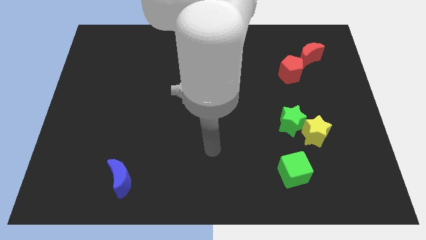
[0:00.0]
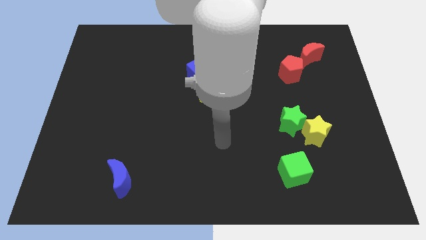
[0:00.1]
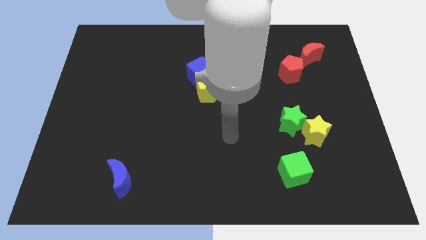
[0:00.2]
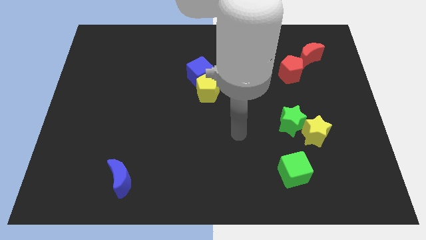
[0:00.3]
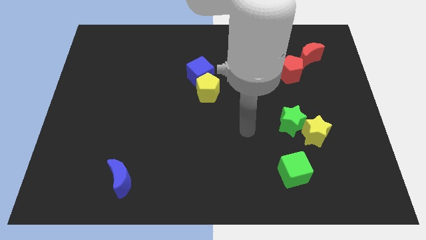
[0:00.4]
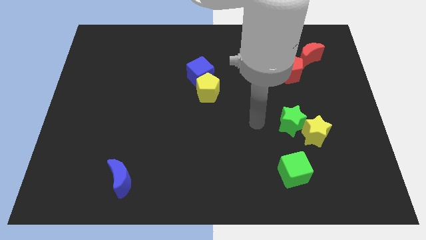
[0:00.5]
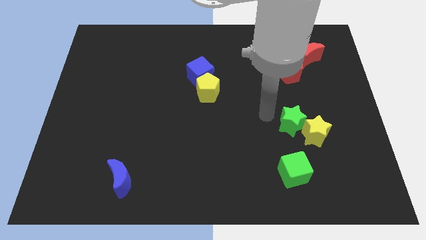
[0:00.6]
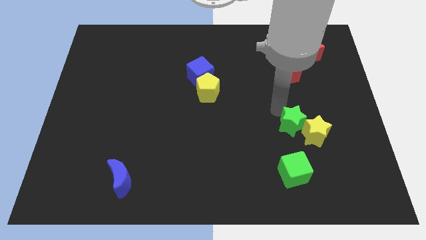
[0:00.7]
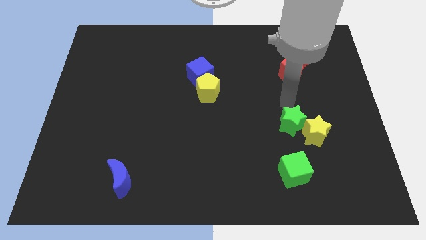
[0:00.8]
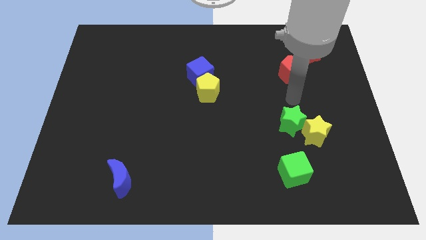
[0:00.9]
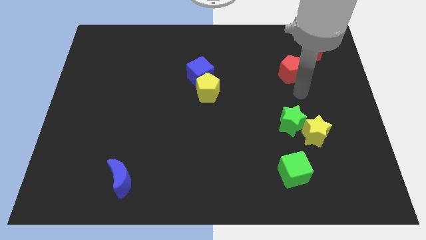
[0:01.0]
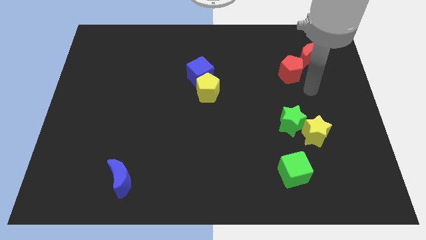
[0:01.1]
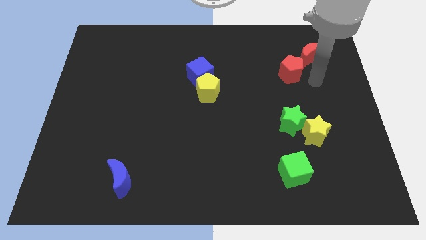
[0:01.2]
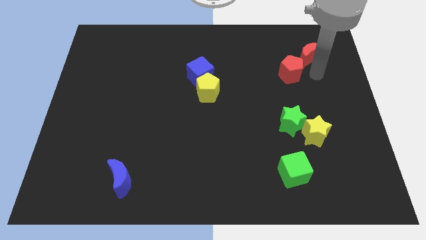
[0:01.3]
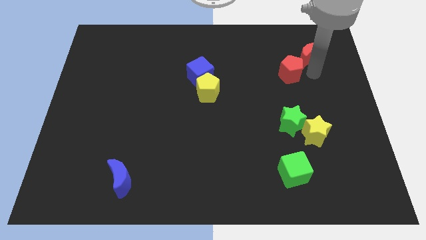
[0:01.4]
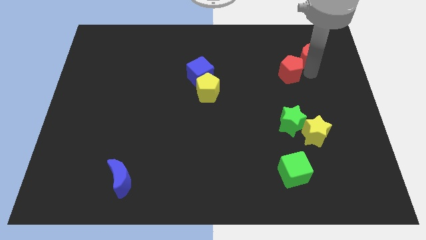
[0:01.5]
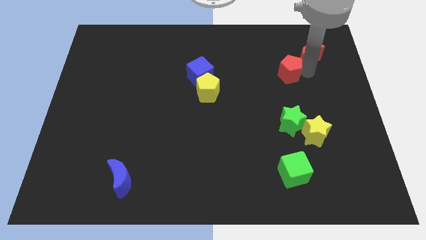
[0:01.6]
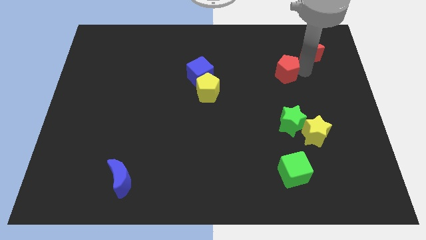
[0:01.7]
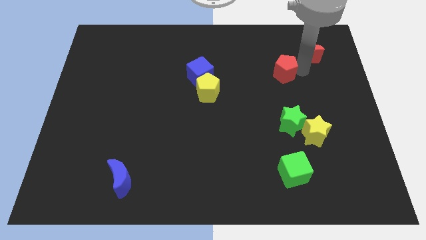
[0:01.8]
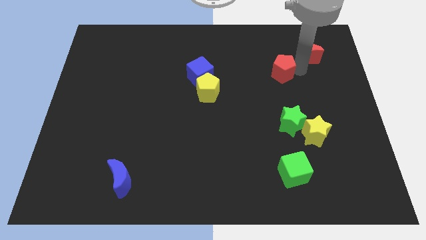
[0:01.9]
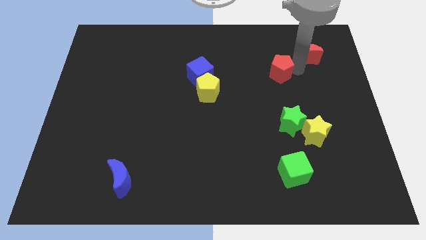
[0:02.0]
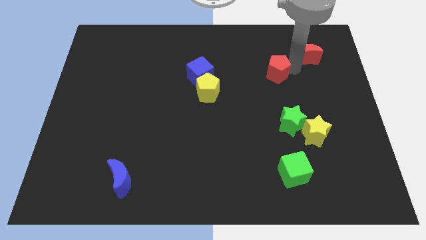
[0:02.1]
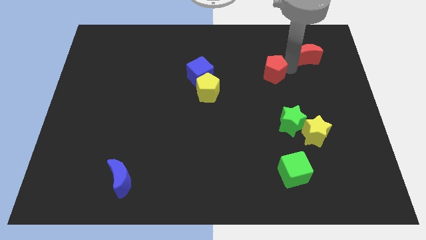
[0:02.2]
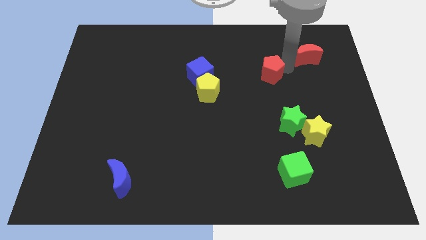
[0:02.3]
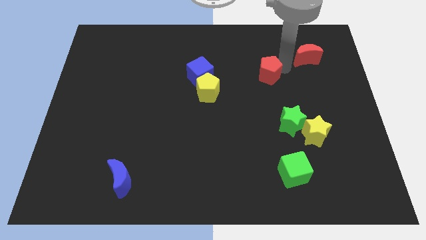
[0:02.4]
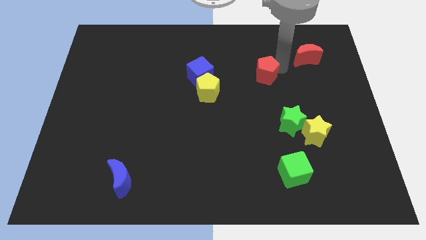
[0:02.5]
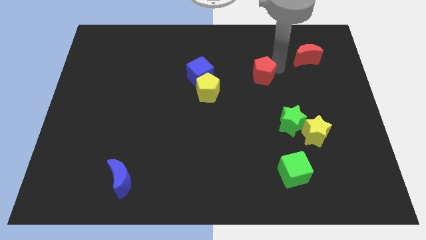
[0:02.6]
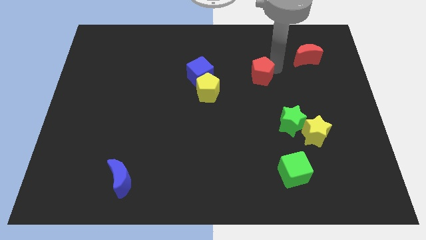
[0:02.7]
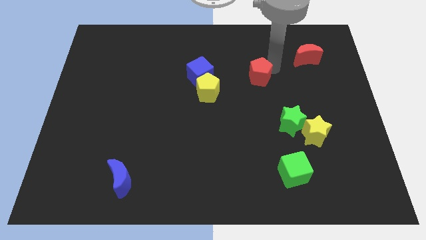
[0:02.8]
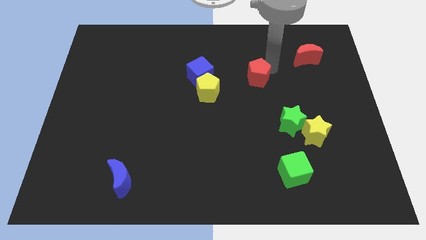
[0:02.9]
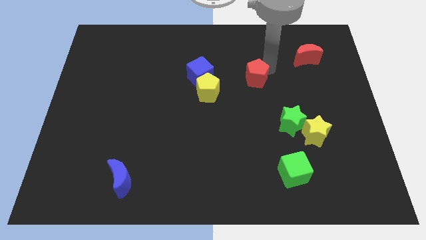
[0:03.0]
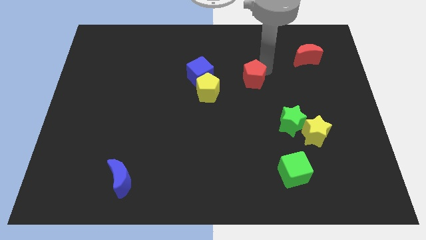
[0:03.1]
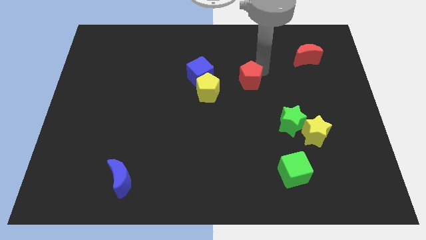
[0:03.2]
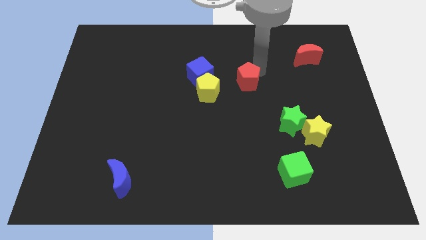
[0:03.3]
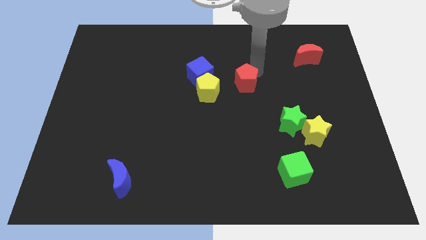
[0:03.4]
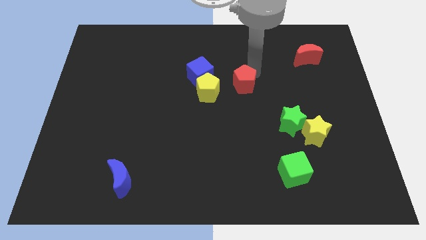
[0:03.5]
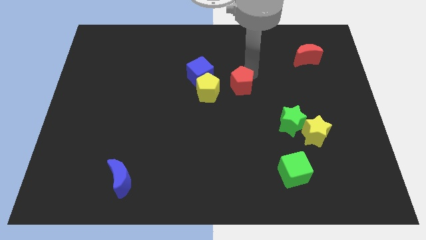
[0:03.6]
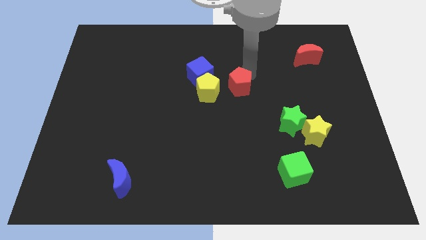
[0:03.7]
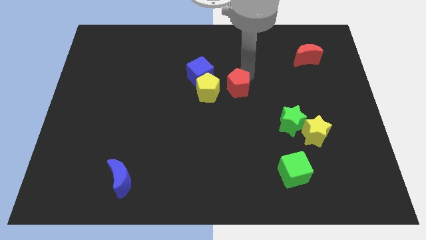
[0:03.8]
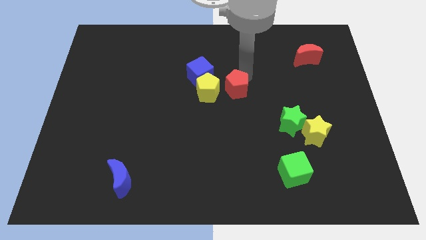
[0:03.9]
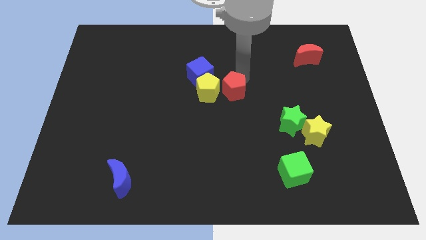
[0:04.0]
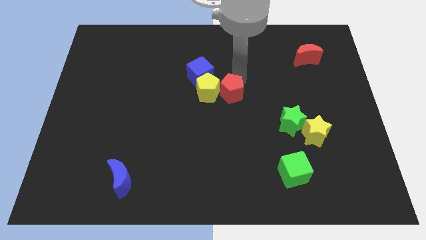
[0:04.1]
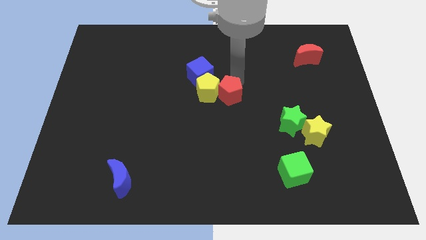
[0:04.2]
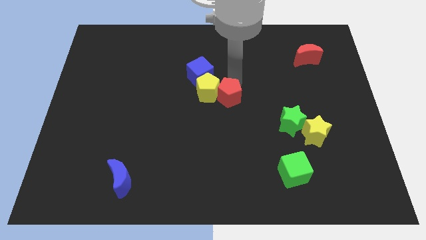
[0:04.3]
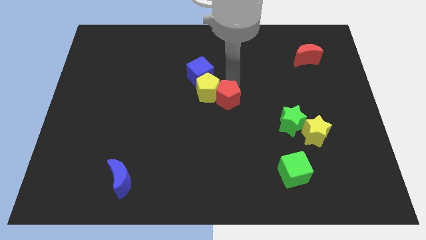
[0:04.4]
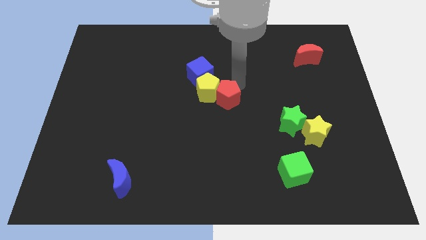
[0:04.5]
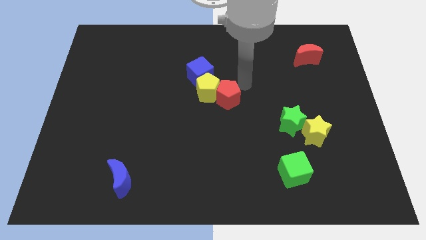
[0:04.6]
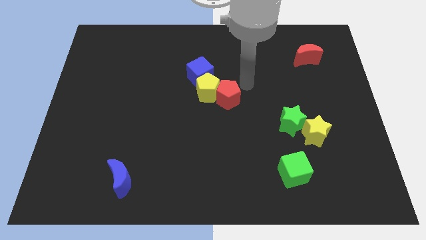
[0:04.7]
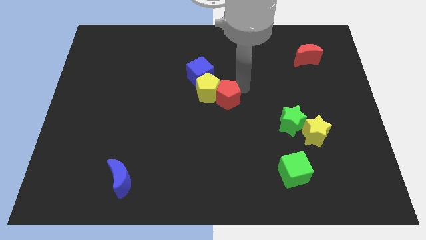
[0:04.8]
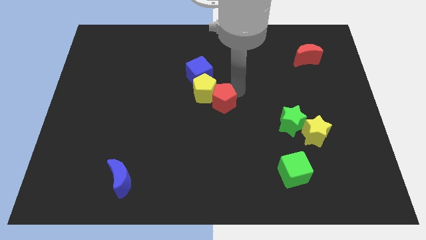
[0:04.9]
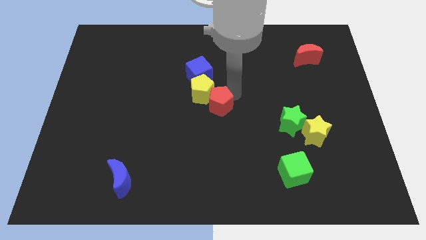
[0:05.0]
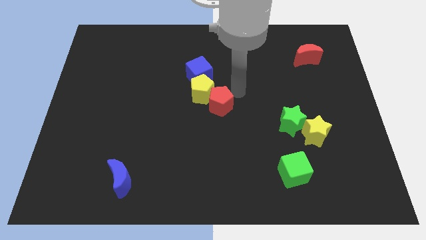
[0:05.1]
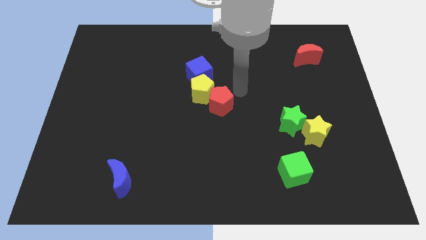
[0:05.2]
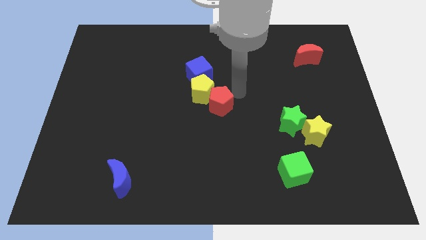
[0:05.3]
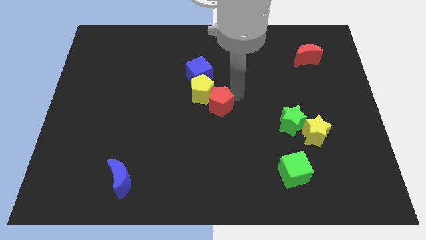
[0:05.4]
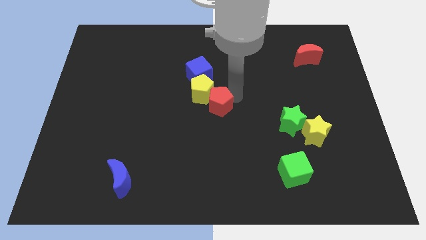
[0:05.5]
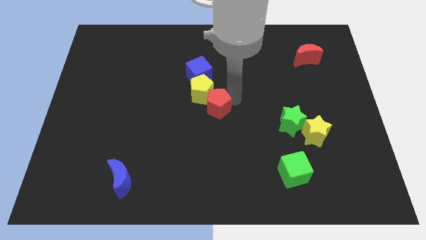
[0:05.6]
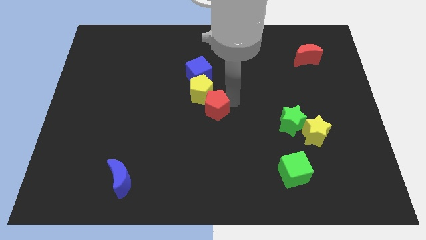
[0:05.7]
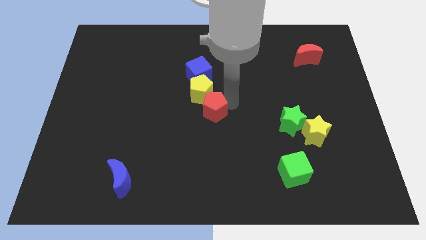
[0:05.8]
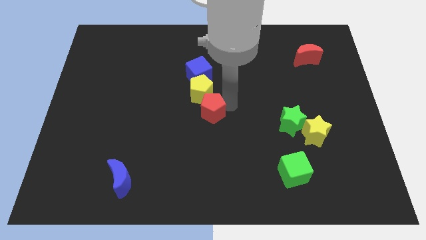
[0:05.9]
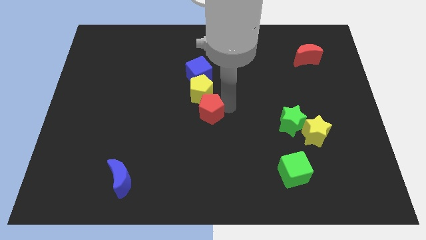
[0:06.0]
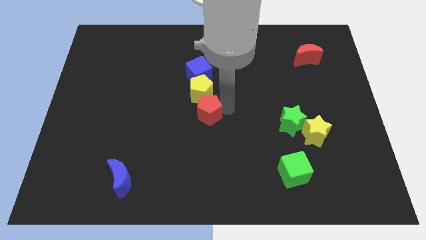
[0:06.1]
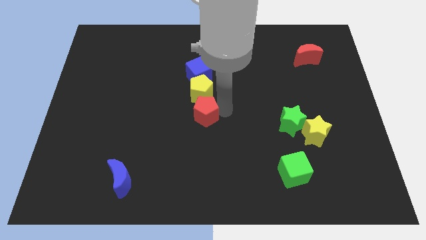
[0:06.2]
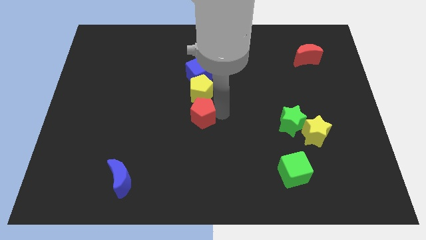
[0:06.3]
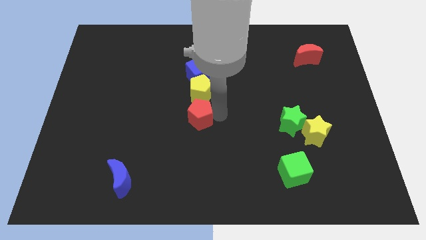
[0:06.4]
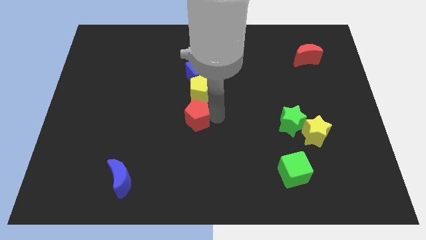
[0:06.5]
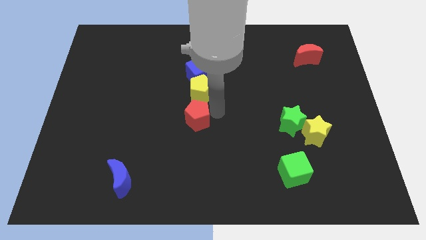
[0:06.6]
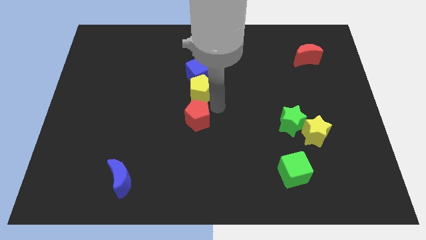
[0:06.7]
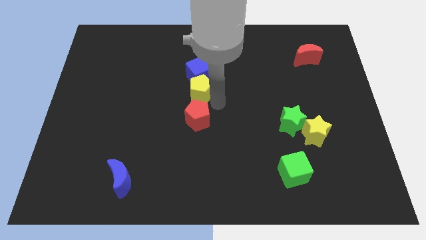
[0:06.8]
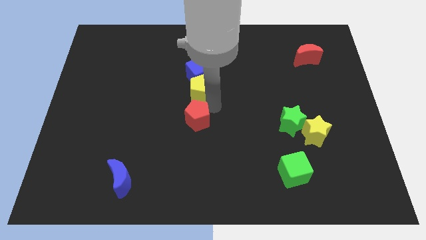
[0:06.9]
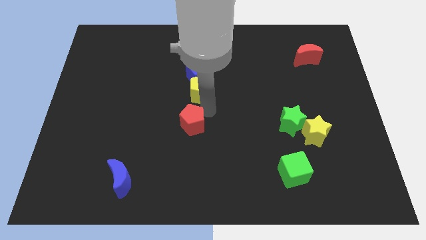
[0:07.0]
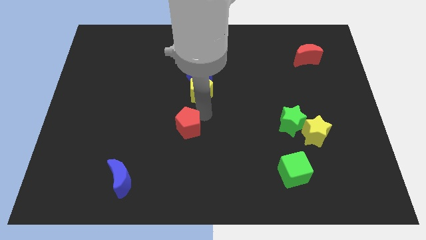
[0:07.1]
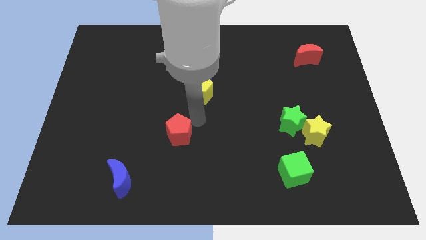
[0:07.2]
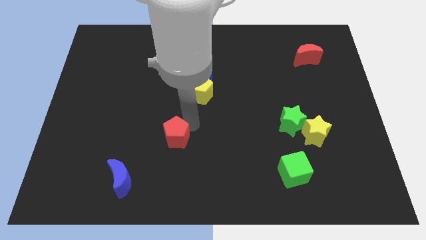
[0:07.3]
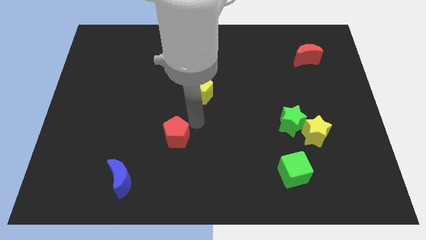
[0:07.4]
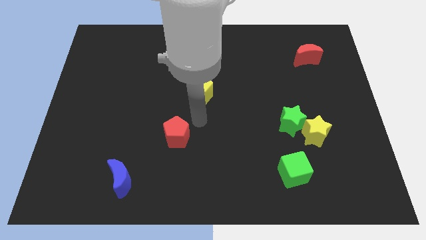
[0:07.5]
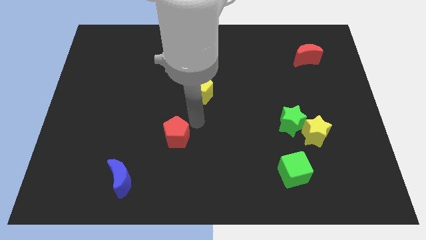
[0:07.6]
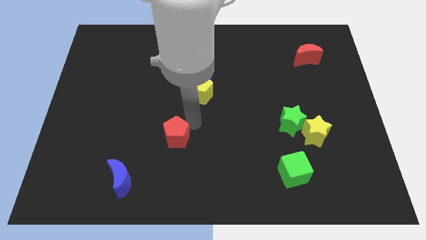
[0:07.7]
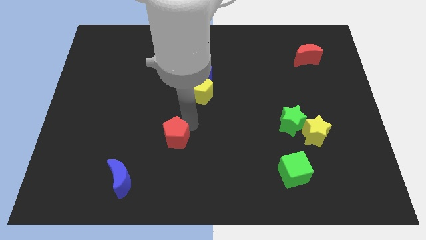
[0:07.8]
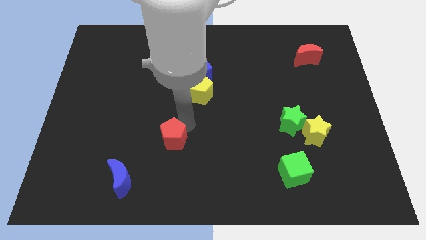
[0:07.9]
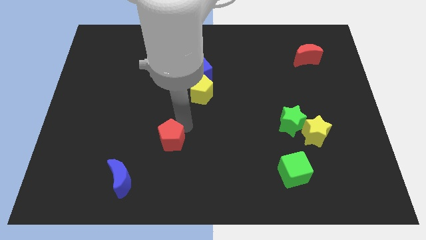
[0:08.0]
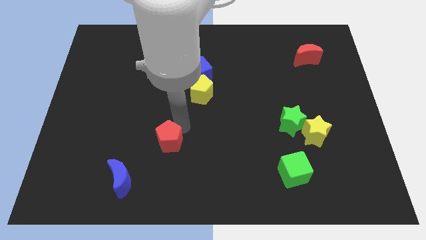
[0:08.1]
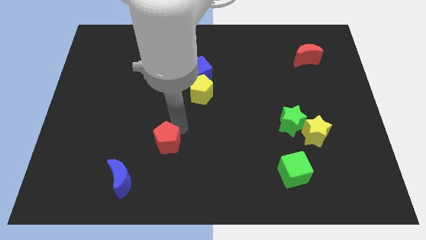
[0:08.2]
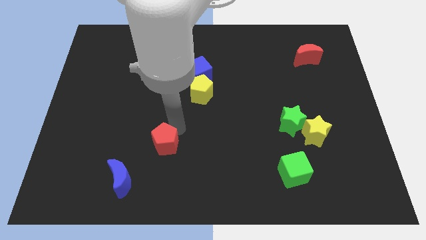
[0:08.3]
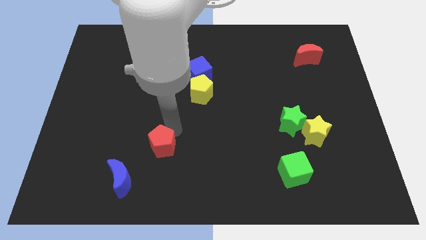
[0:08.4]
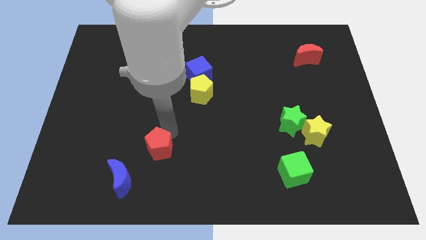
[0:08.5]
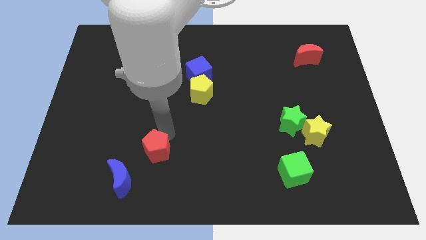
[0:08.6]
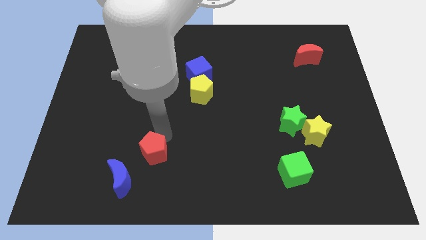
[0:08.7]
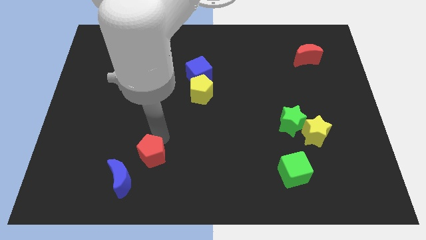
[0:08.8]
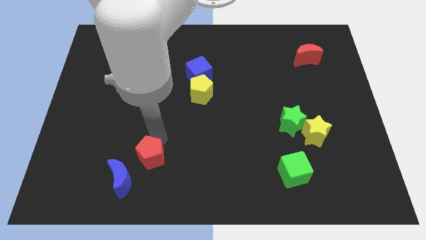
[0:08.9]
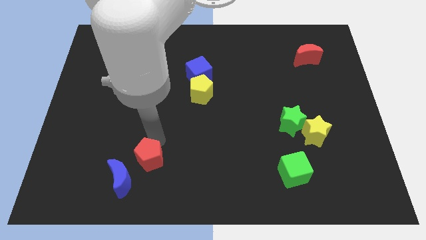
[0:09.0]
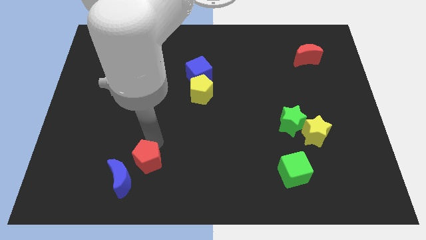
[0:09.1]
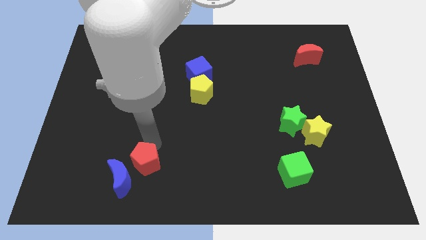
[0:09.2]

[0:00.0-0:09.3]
push the red pentagon next to the blue moon
